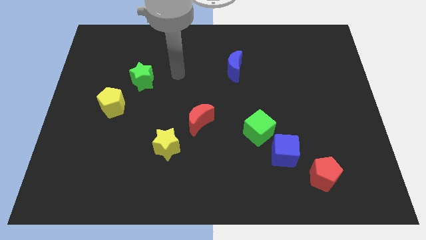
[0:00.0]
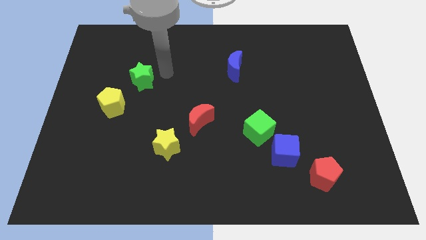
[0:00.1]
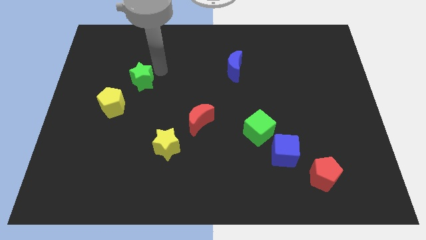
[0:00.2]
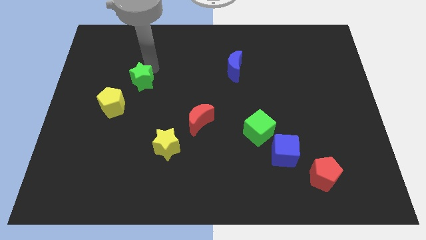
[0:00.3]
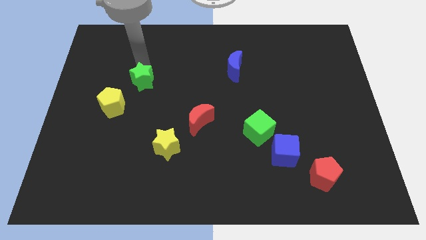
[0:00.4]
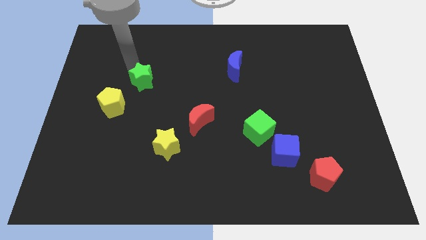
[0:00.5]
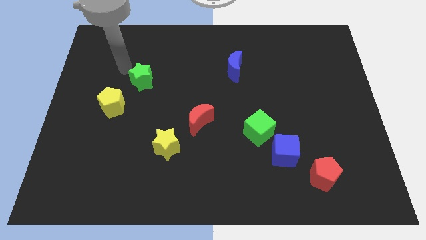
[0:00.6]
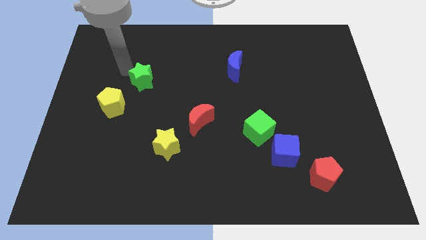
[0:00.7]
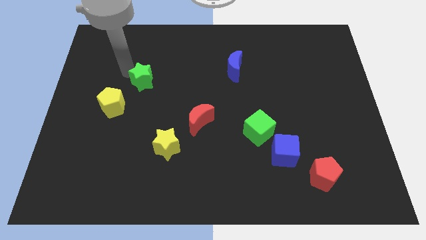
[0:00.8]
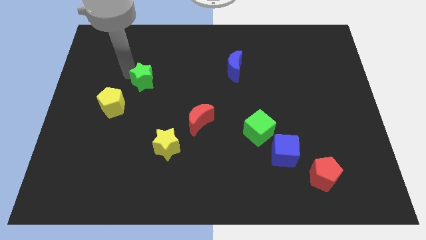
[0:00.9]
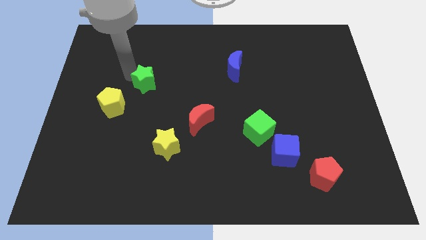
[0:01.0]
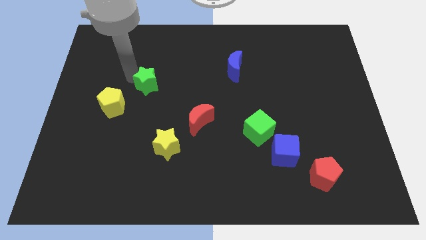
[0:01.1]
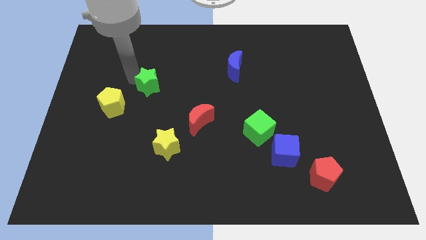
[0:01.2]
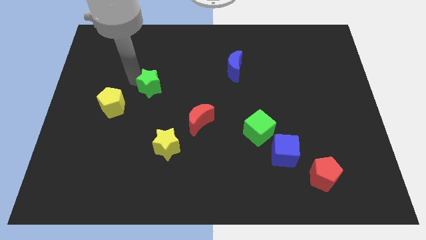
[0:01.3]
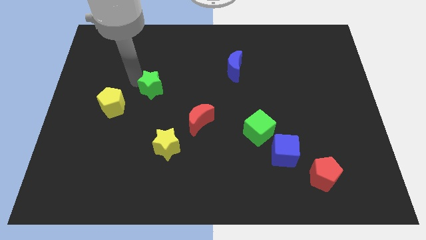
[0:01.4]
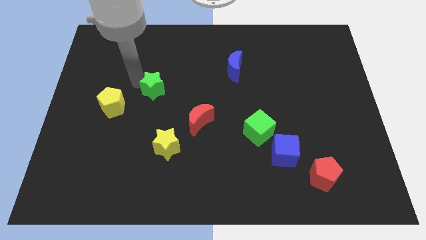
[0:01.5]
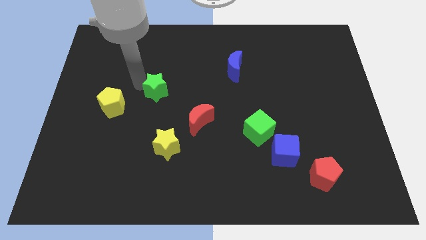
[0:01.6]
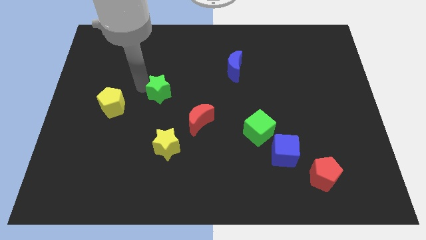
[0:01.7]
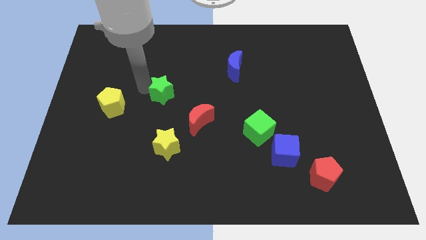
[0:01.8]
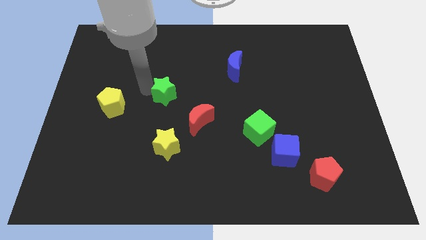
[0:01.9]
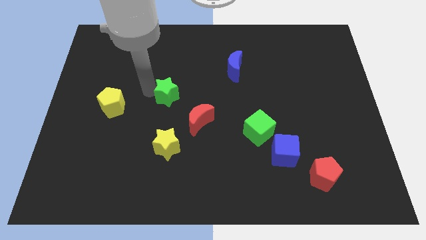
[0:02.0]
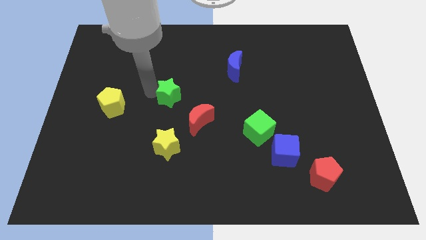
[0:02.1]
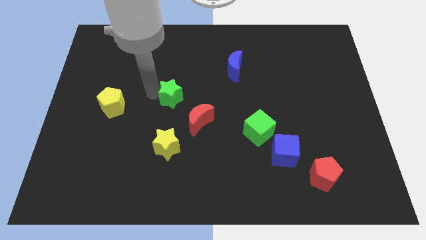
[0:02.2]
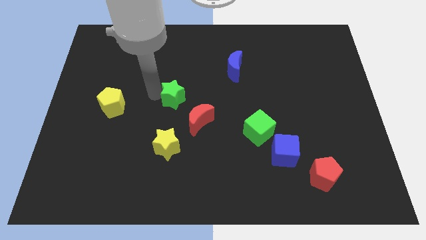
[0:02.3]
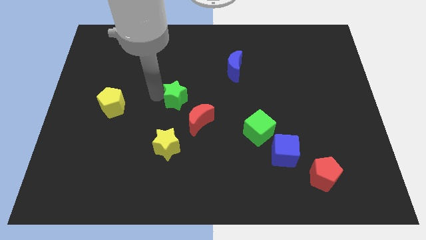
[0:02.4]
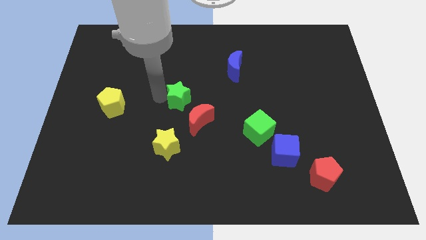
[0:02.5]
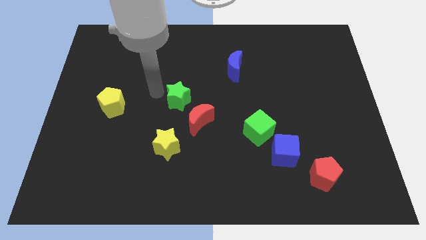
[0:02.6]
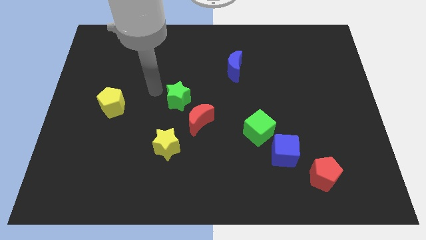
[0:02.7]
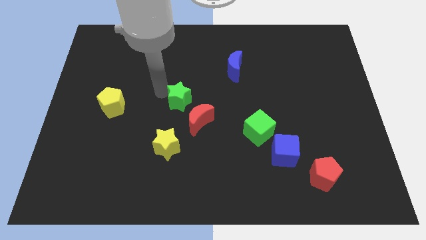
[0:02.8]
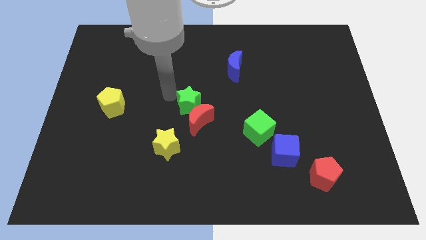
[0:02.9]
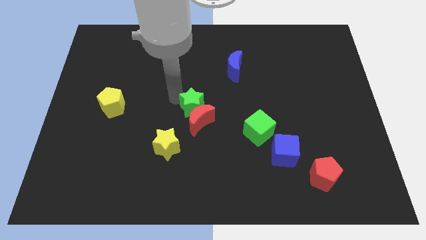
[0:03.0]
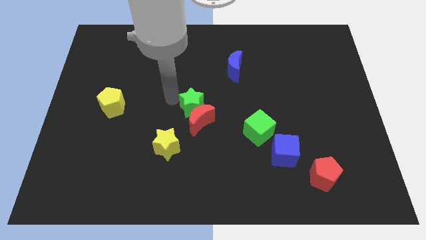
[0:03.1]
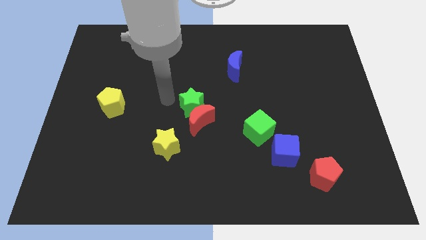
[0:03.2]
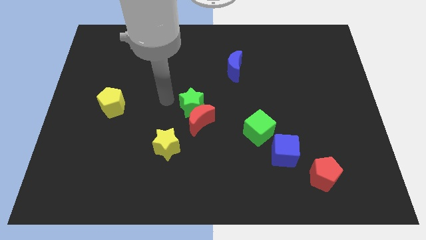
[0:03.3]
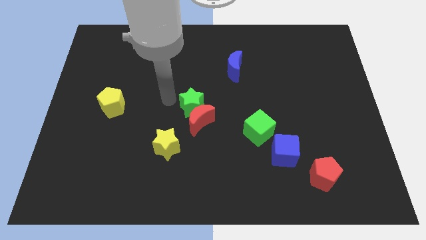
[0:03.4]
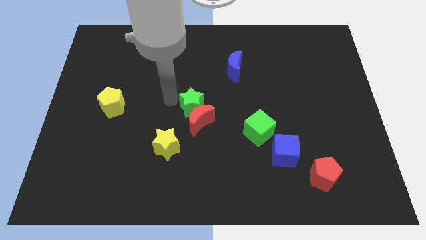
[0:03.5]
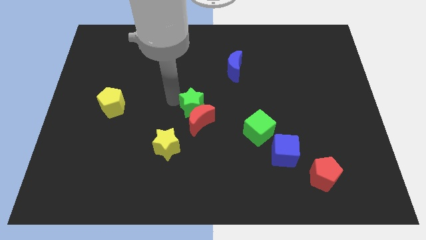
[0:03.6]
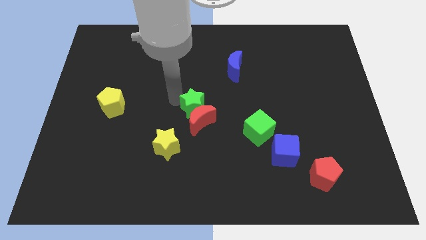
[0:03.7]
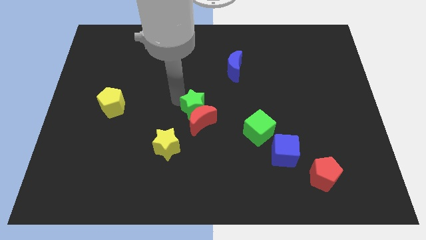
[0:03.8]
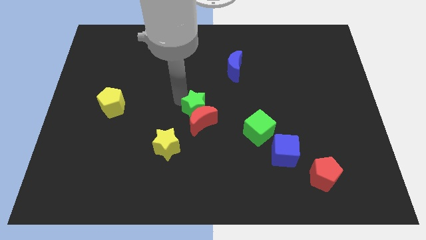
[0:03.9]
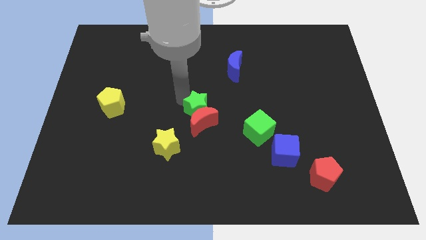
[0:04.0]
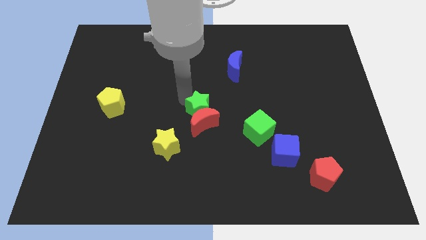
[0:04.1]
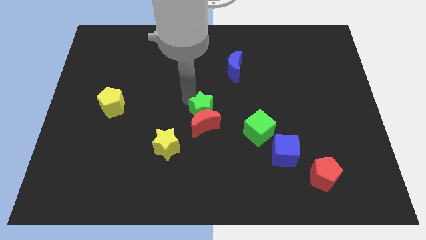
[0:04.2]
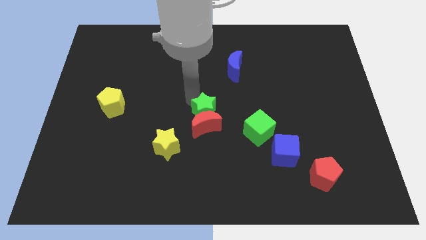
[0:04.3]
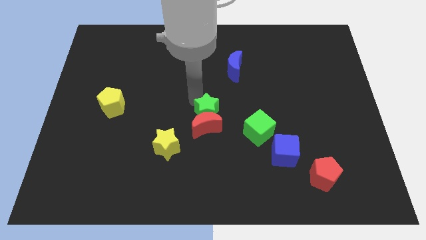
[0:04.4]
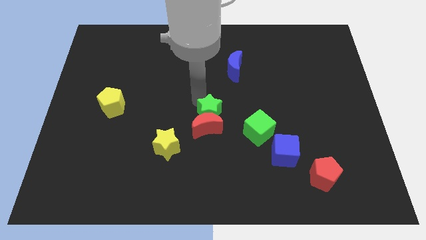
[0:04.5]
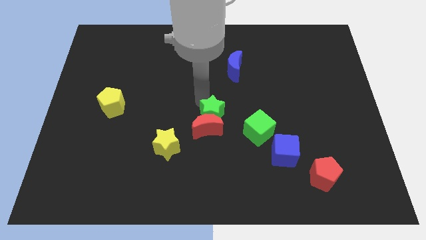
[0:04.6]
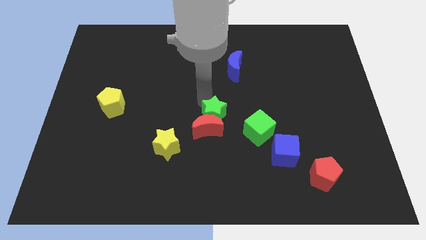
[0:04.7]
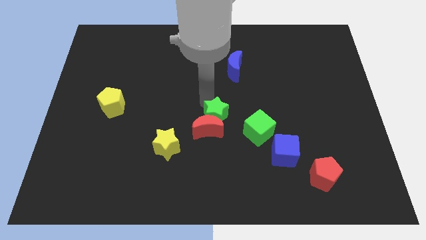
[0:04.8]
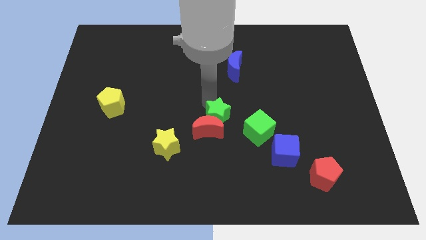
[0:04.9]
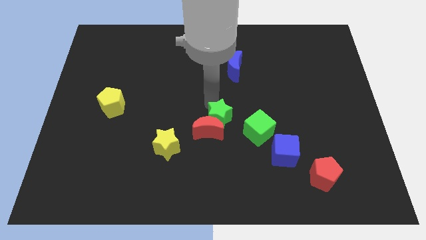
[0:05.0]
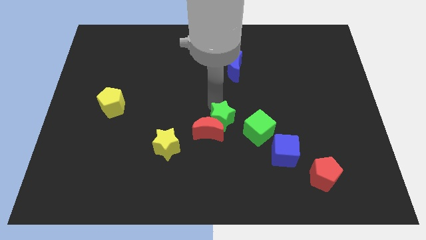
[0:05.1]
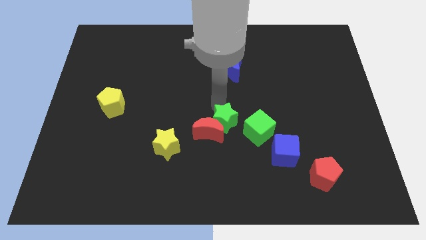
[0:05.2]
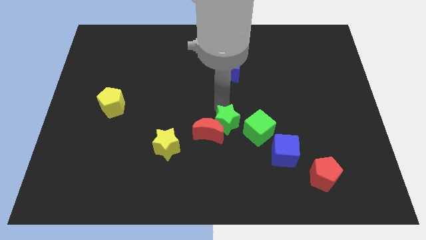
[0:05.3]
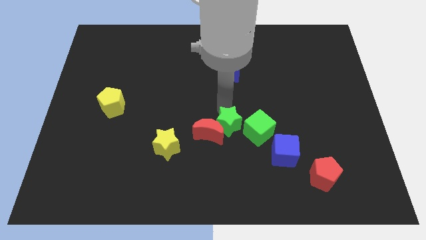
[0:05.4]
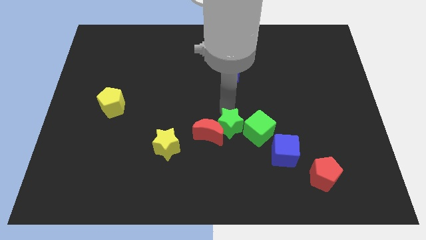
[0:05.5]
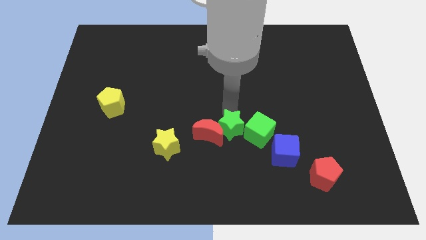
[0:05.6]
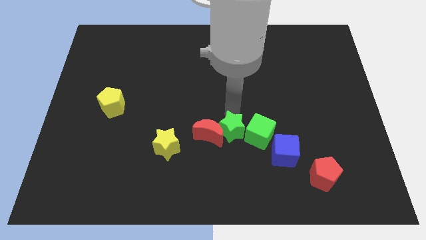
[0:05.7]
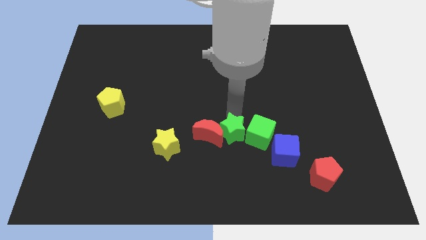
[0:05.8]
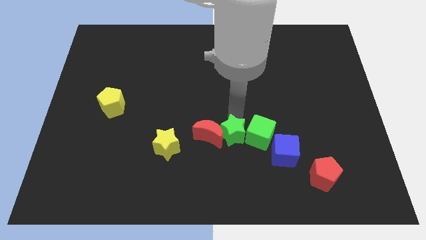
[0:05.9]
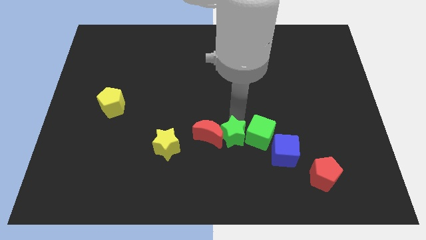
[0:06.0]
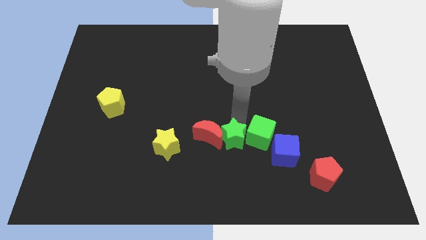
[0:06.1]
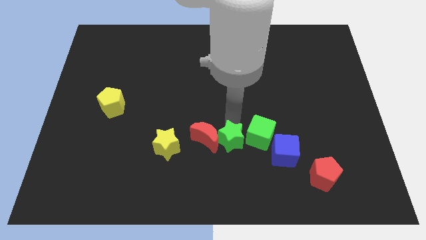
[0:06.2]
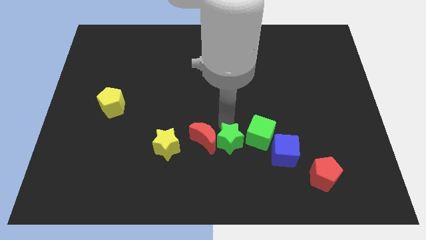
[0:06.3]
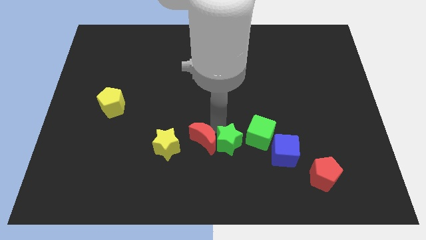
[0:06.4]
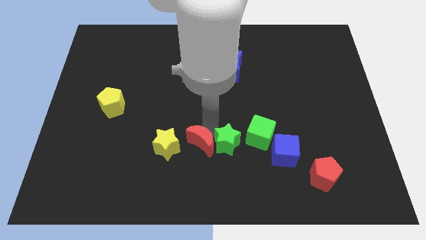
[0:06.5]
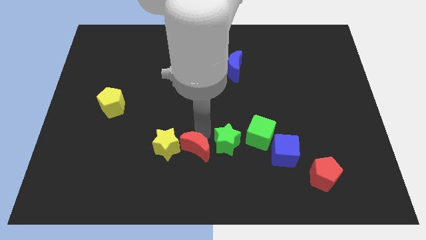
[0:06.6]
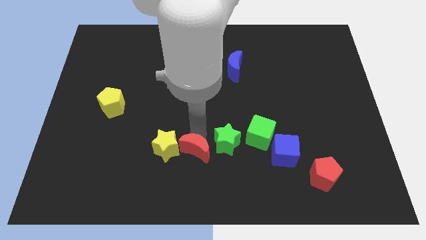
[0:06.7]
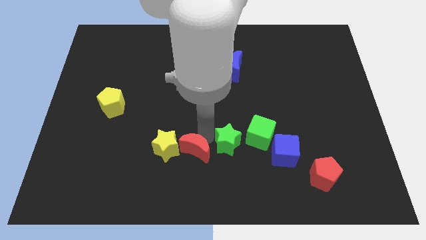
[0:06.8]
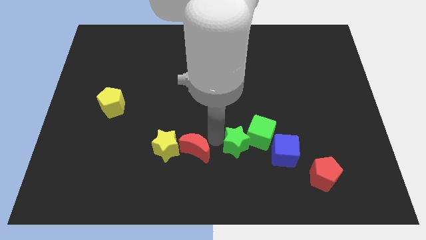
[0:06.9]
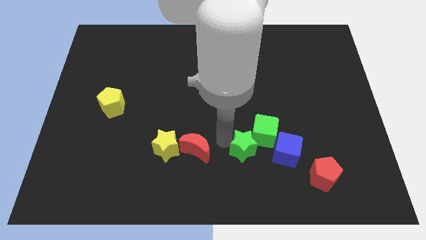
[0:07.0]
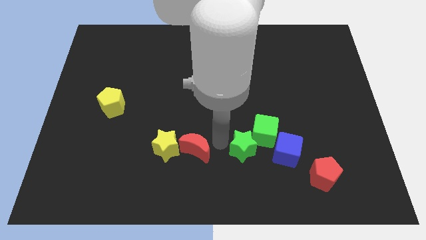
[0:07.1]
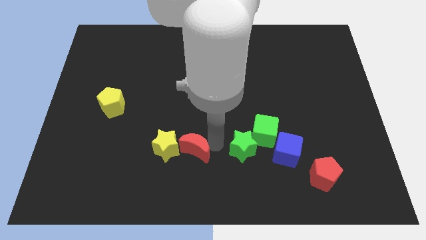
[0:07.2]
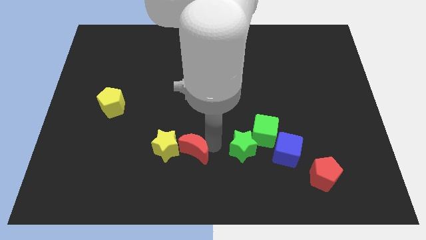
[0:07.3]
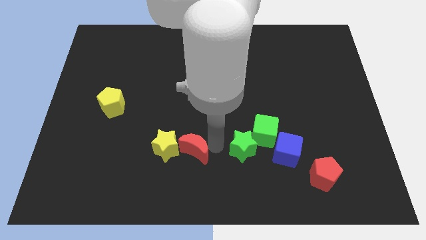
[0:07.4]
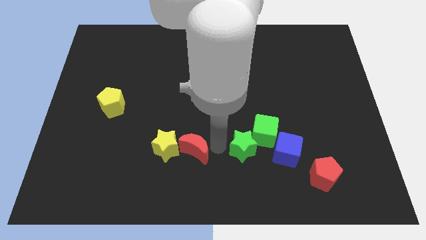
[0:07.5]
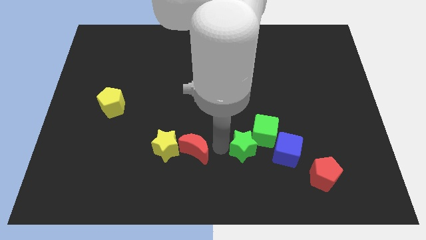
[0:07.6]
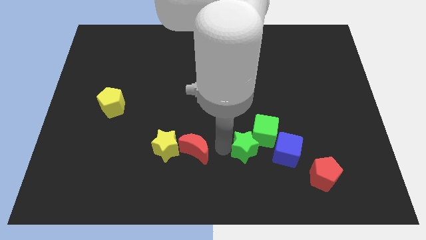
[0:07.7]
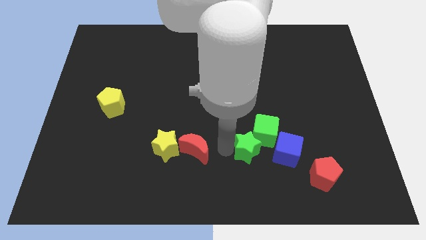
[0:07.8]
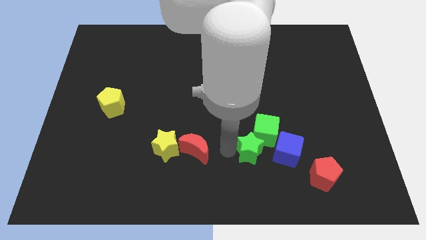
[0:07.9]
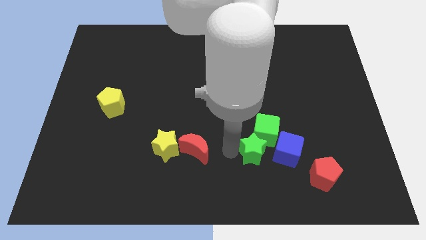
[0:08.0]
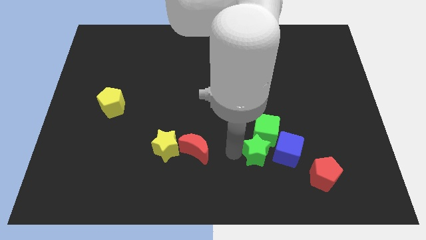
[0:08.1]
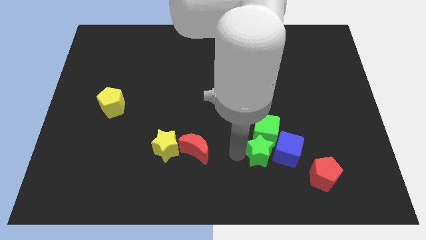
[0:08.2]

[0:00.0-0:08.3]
slide the green star next to the blue cube
